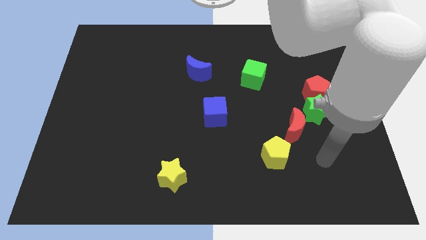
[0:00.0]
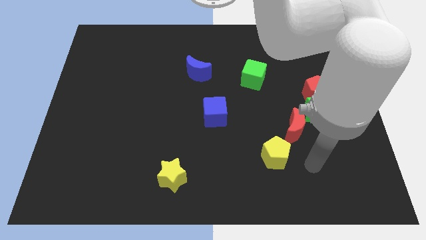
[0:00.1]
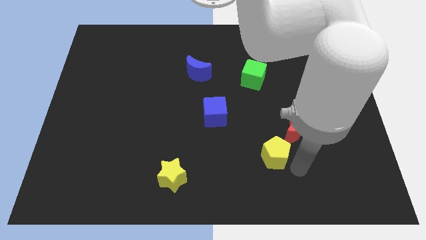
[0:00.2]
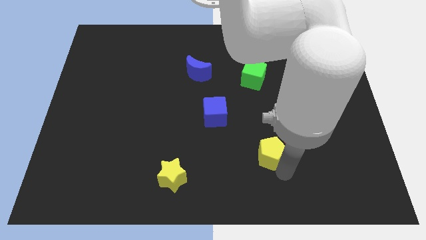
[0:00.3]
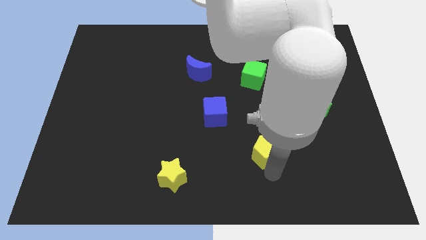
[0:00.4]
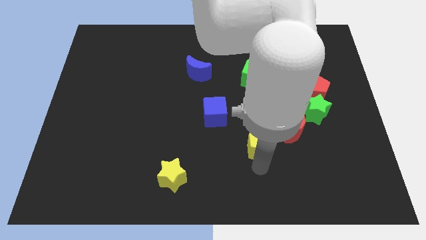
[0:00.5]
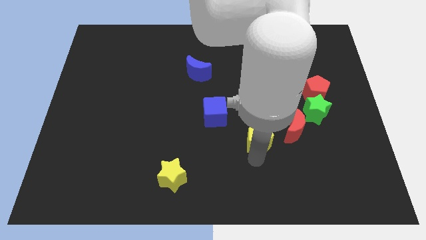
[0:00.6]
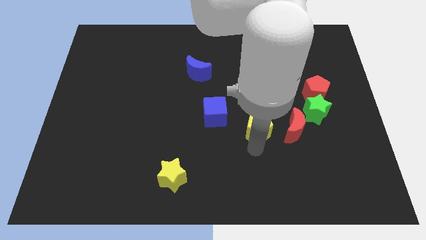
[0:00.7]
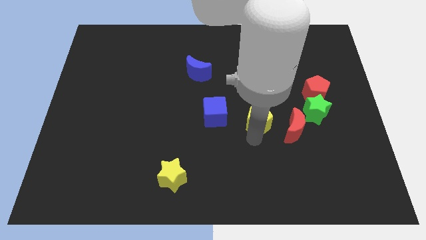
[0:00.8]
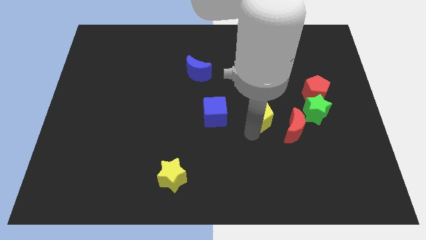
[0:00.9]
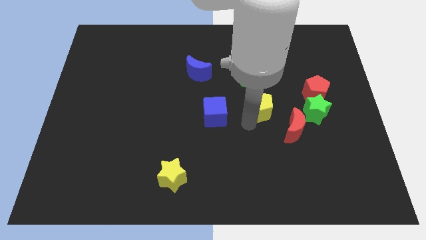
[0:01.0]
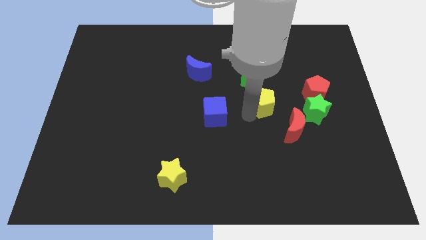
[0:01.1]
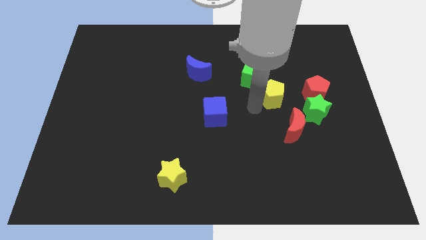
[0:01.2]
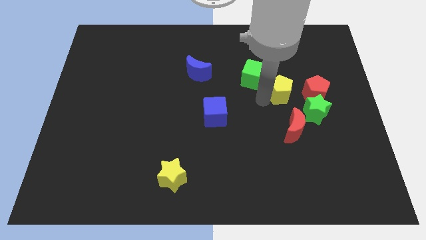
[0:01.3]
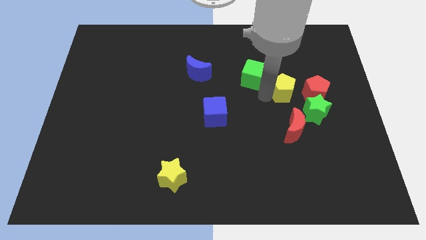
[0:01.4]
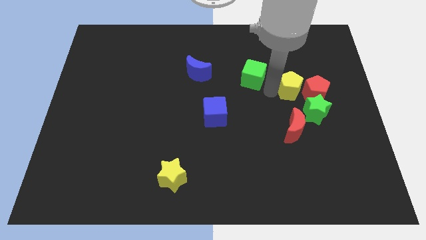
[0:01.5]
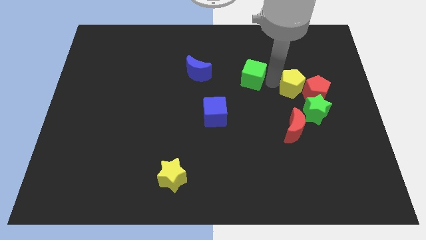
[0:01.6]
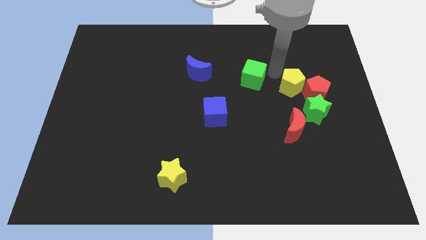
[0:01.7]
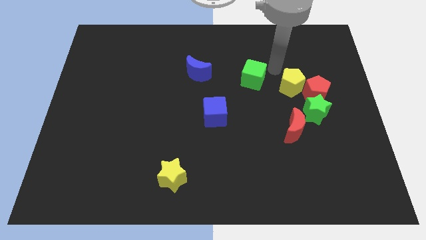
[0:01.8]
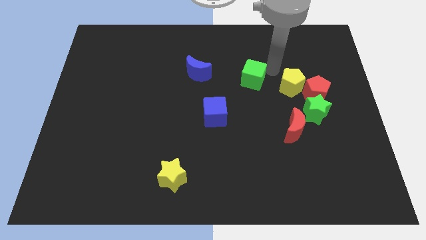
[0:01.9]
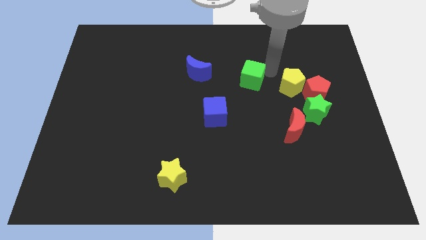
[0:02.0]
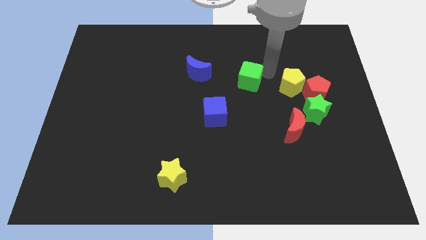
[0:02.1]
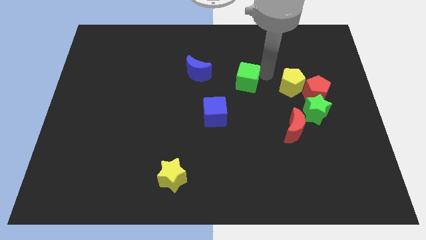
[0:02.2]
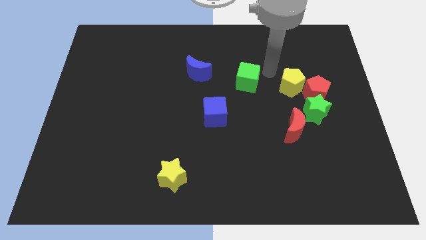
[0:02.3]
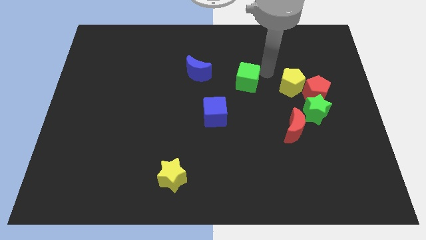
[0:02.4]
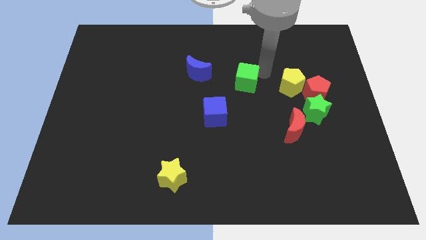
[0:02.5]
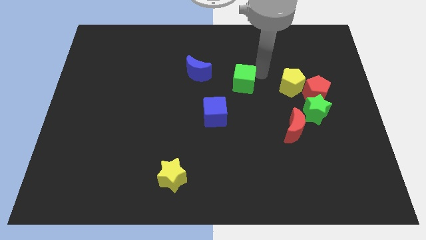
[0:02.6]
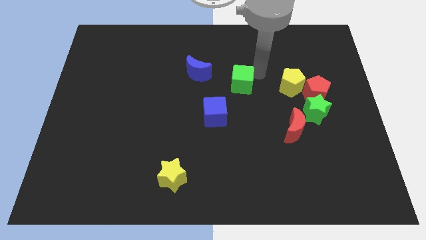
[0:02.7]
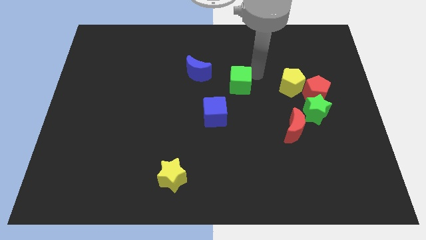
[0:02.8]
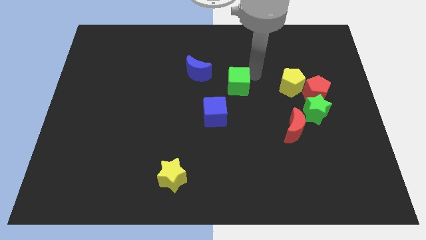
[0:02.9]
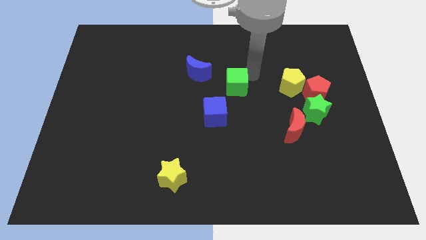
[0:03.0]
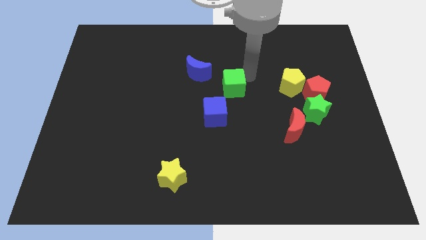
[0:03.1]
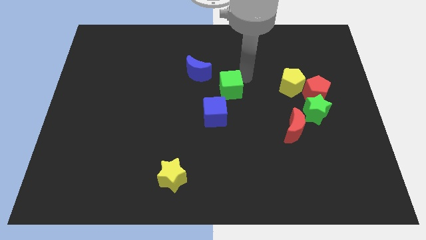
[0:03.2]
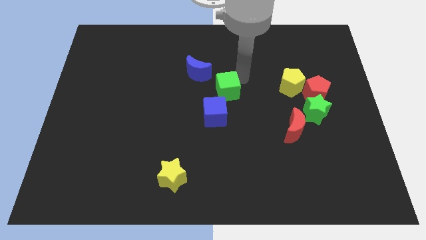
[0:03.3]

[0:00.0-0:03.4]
move the green cube somewhat down and then left

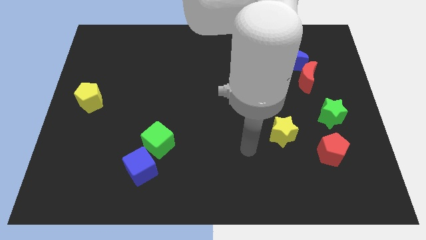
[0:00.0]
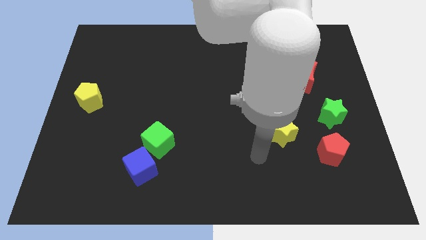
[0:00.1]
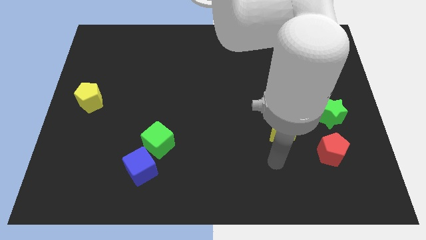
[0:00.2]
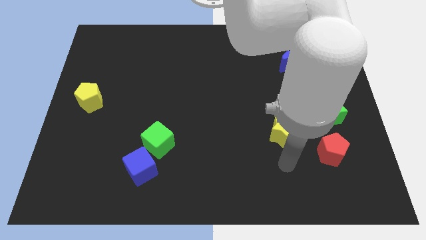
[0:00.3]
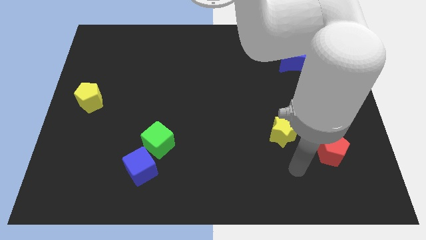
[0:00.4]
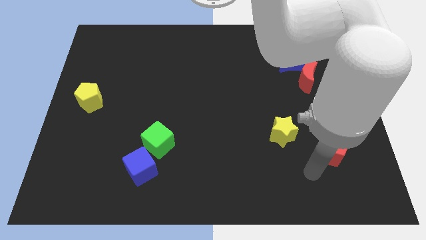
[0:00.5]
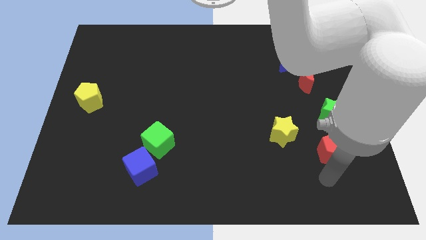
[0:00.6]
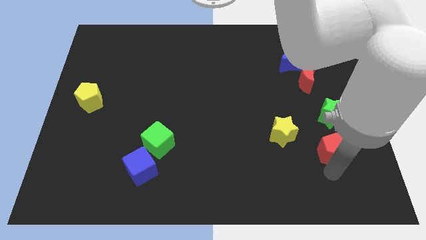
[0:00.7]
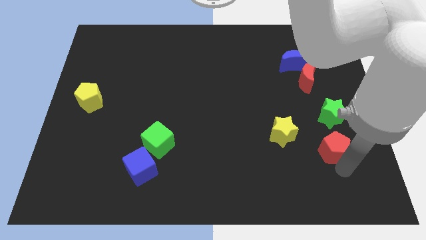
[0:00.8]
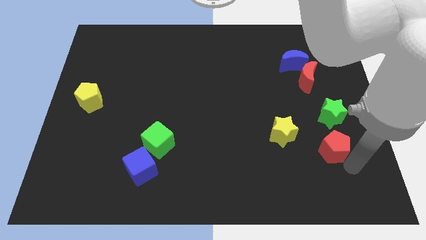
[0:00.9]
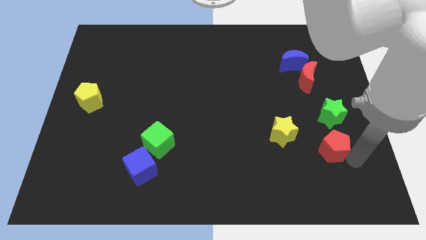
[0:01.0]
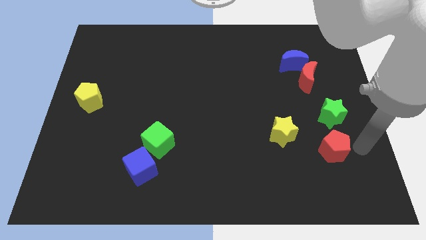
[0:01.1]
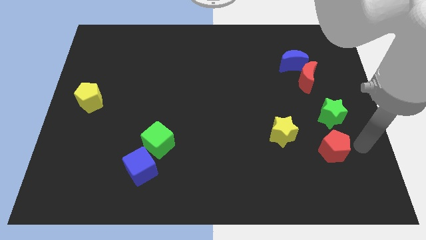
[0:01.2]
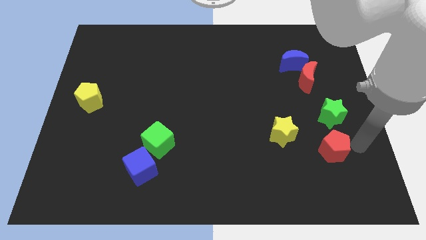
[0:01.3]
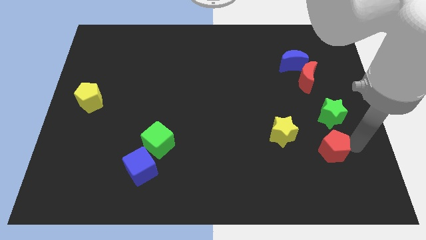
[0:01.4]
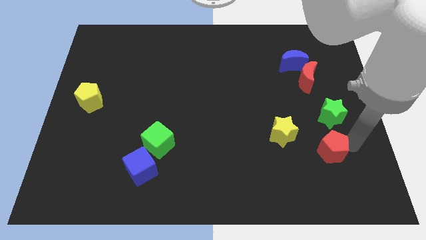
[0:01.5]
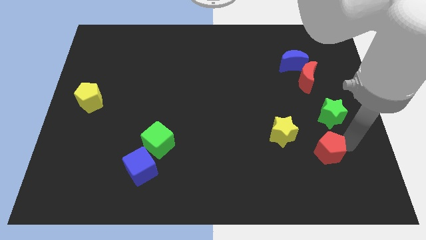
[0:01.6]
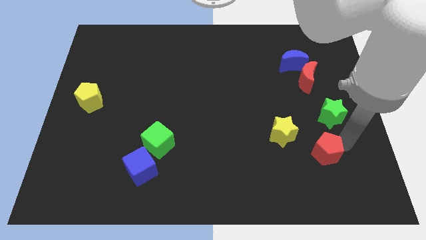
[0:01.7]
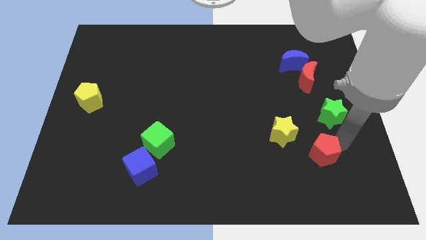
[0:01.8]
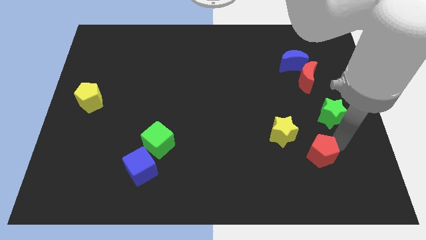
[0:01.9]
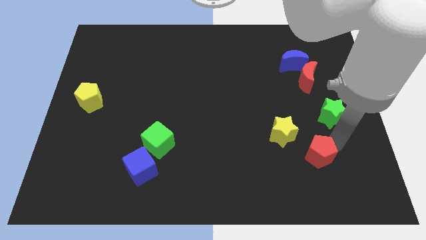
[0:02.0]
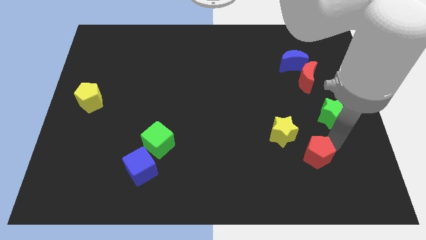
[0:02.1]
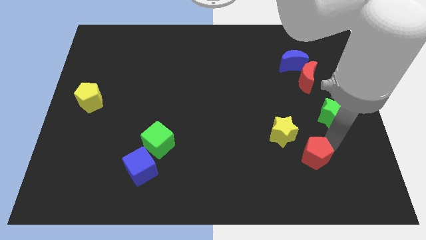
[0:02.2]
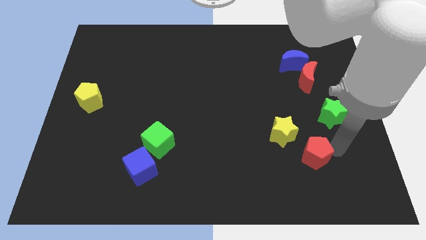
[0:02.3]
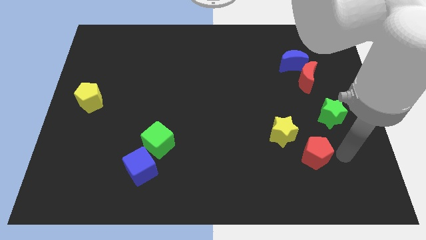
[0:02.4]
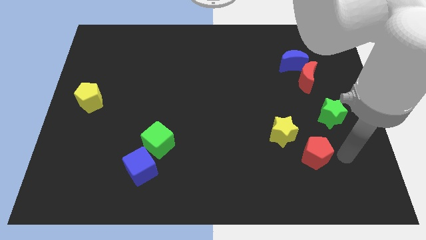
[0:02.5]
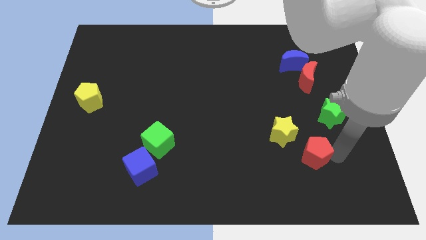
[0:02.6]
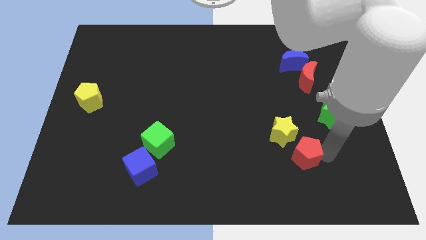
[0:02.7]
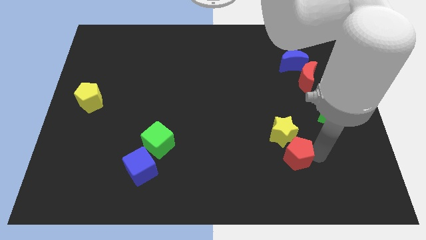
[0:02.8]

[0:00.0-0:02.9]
slightly push the red pentagon to the left

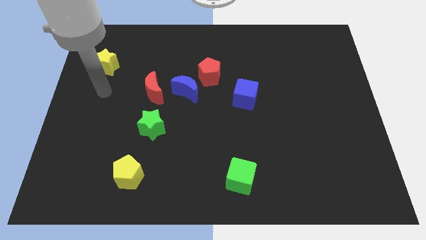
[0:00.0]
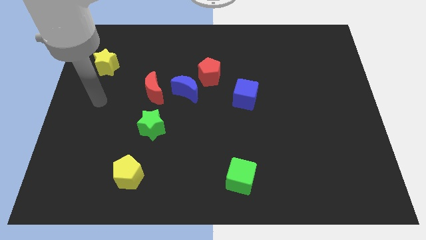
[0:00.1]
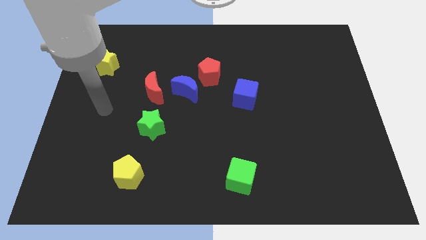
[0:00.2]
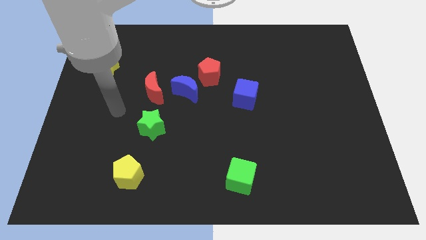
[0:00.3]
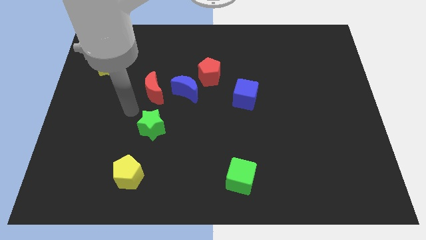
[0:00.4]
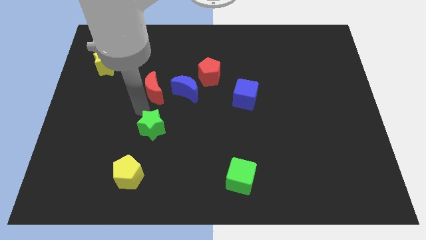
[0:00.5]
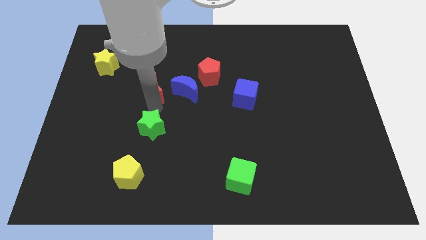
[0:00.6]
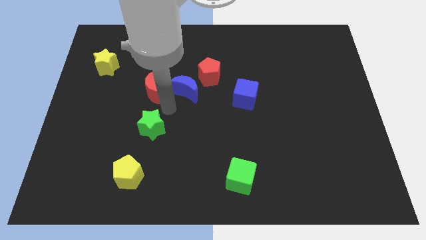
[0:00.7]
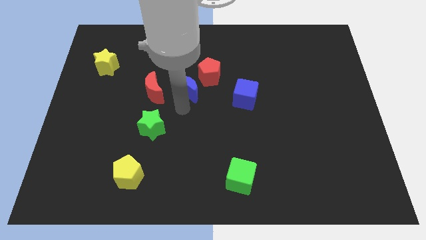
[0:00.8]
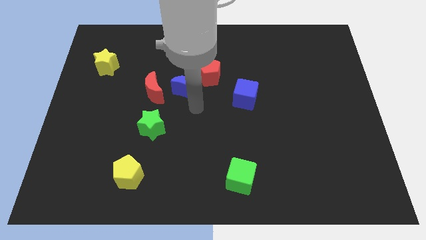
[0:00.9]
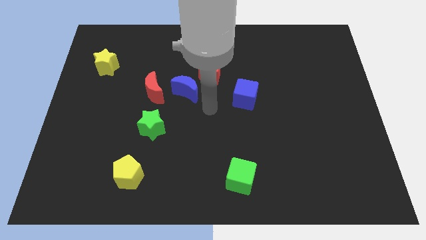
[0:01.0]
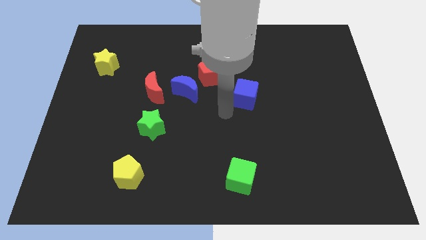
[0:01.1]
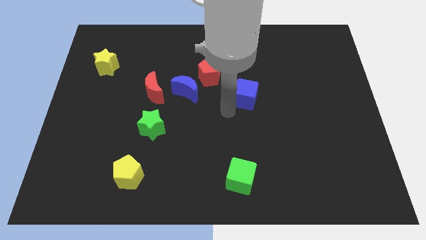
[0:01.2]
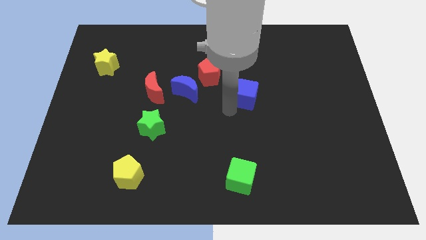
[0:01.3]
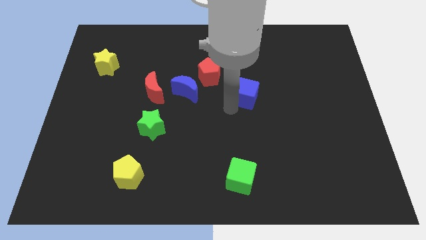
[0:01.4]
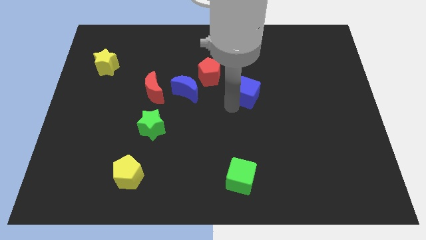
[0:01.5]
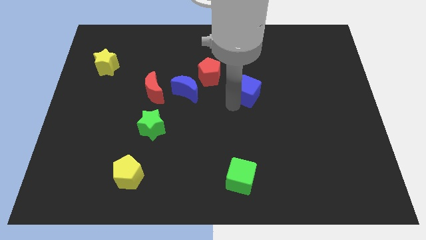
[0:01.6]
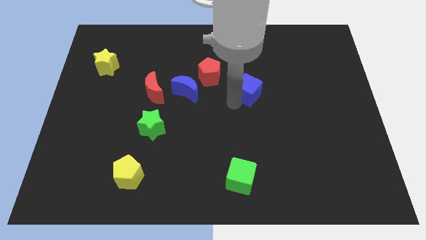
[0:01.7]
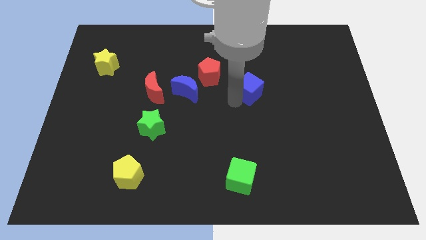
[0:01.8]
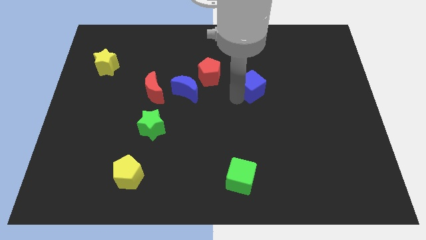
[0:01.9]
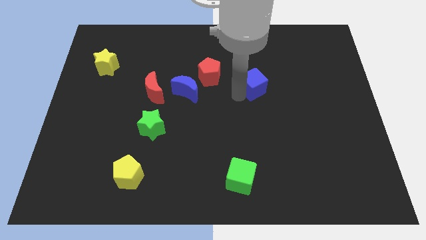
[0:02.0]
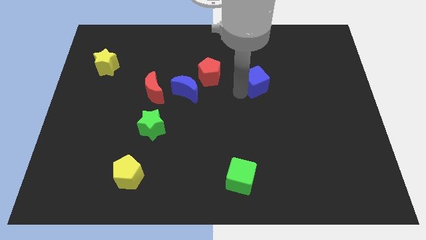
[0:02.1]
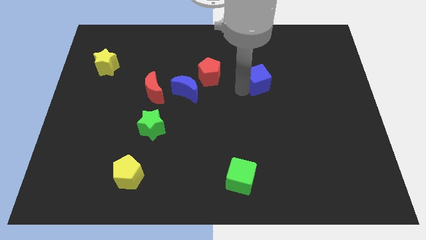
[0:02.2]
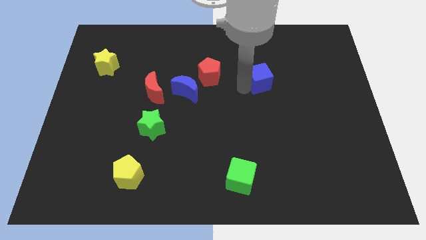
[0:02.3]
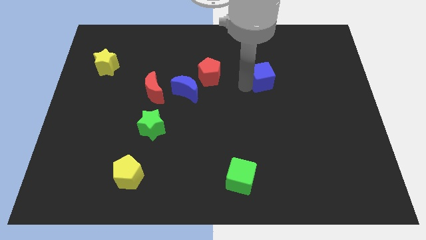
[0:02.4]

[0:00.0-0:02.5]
slightly move the blue cube up and right
